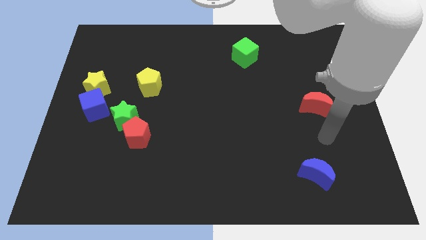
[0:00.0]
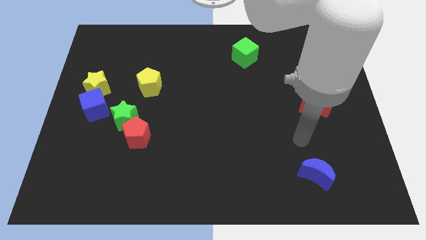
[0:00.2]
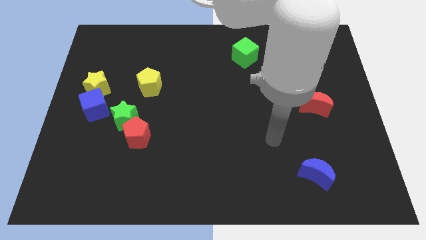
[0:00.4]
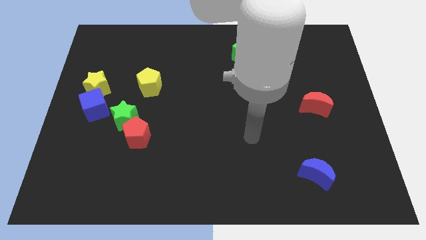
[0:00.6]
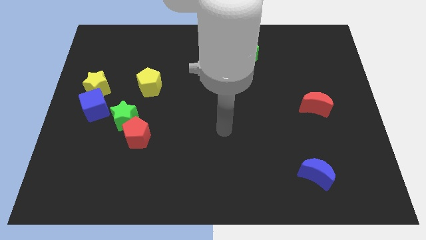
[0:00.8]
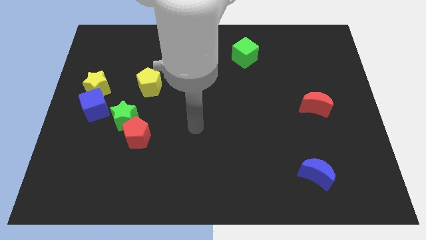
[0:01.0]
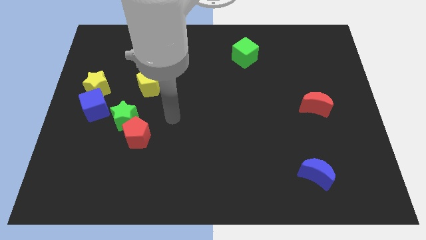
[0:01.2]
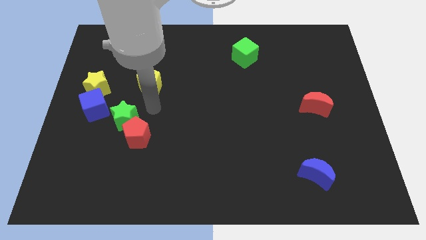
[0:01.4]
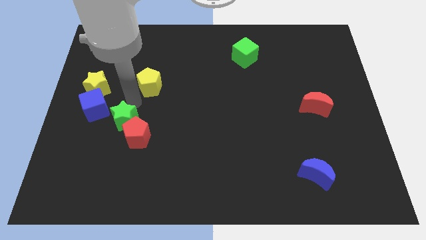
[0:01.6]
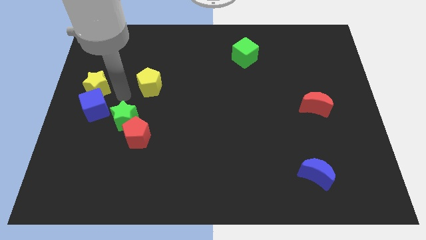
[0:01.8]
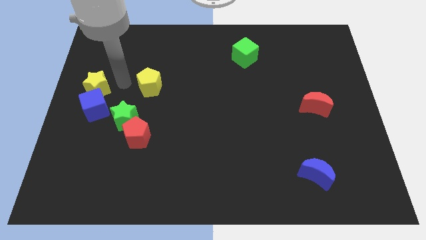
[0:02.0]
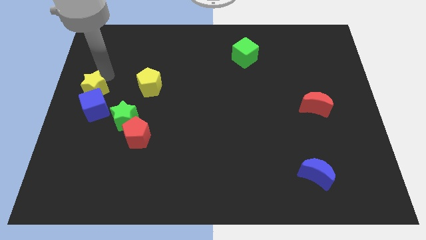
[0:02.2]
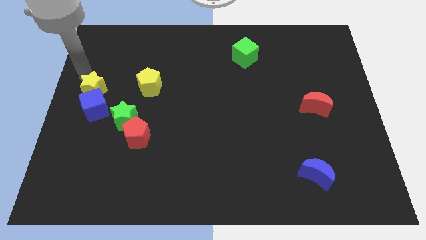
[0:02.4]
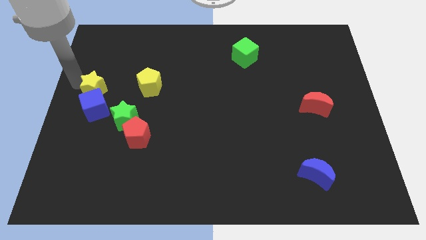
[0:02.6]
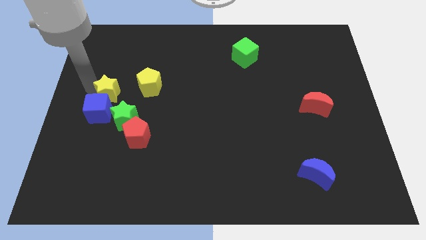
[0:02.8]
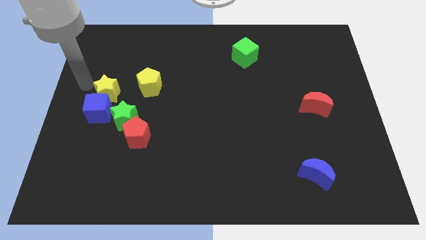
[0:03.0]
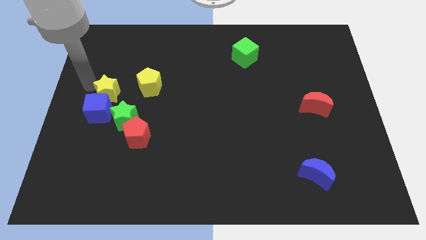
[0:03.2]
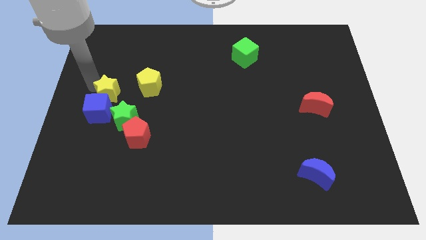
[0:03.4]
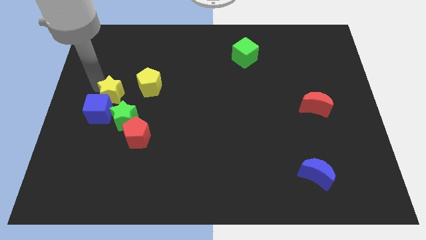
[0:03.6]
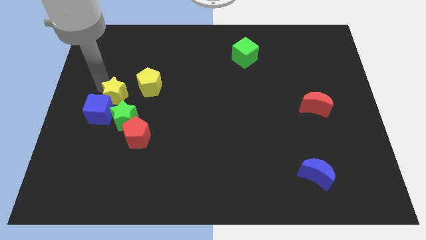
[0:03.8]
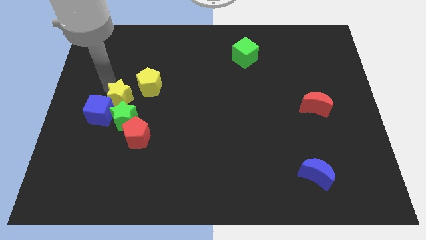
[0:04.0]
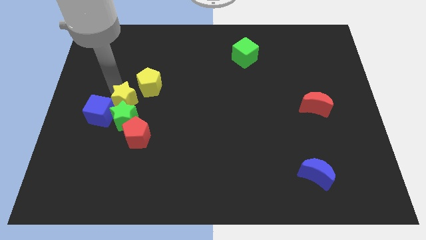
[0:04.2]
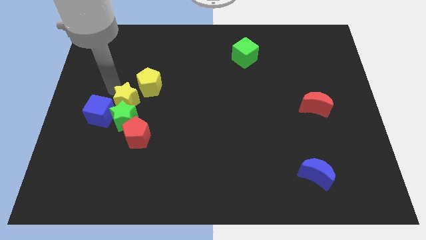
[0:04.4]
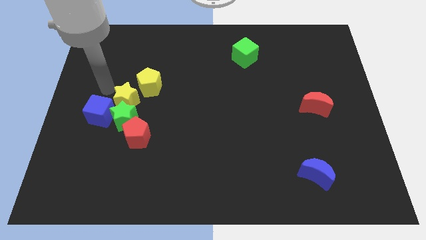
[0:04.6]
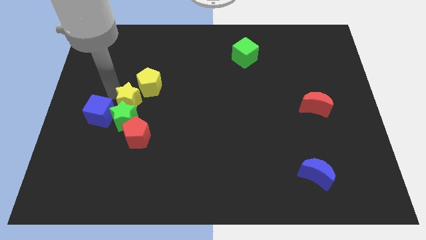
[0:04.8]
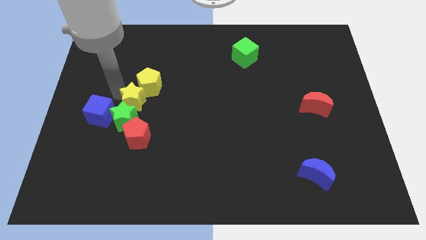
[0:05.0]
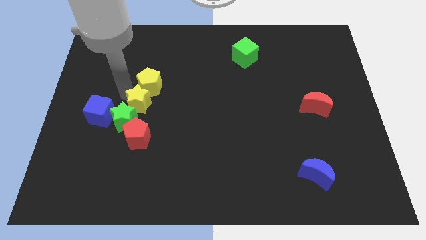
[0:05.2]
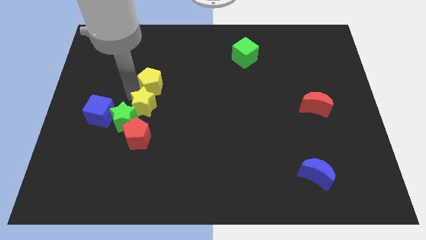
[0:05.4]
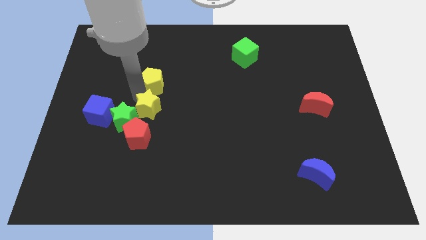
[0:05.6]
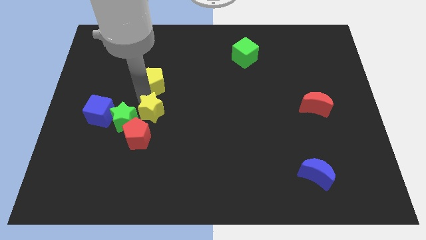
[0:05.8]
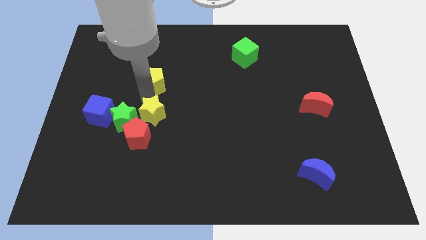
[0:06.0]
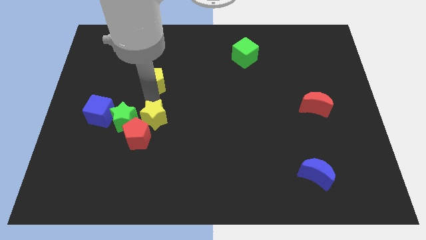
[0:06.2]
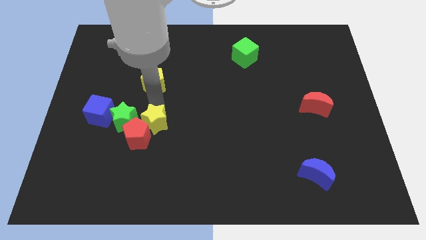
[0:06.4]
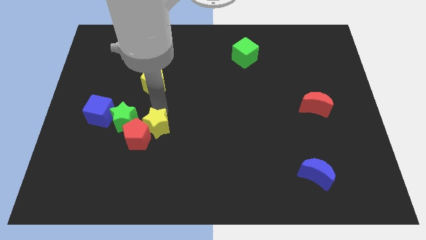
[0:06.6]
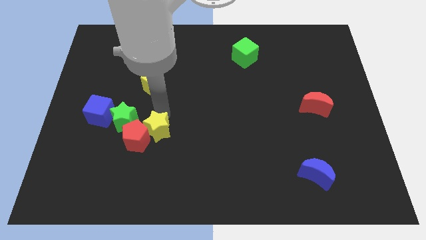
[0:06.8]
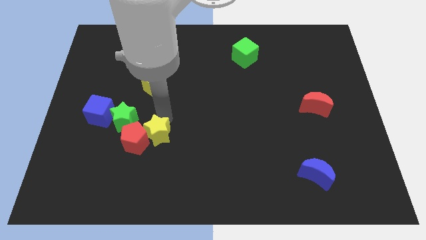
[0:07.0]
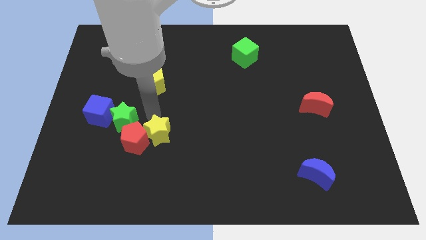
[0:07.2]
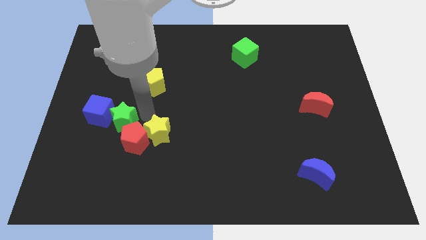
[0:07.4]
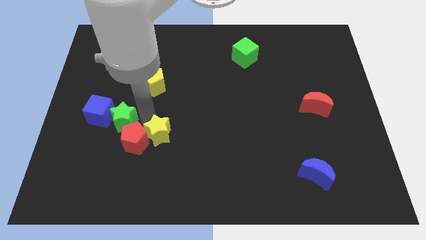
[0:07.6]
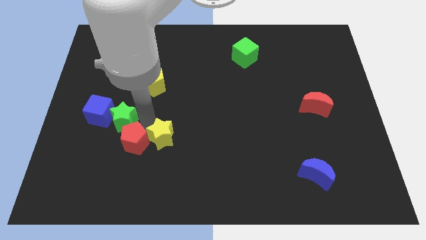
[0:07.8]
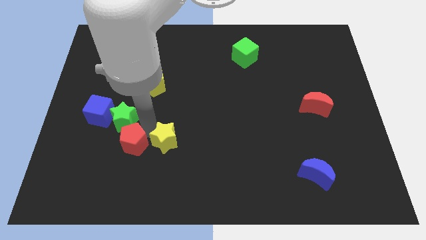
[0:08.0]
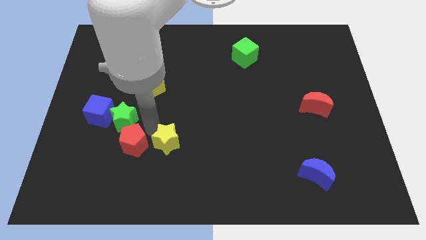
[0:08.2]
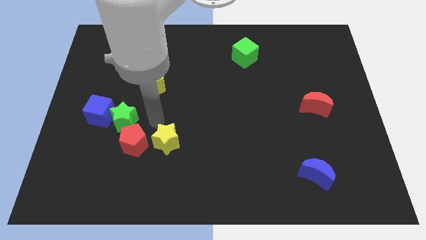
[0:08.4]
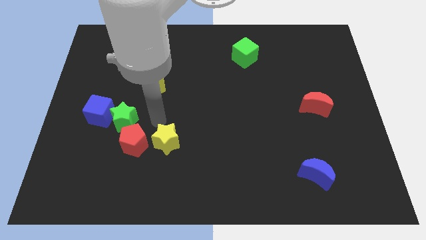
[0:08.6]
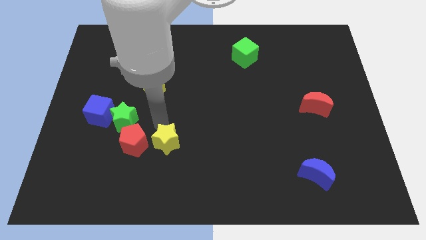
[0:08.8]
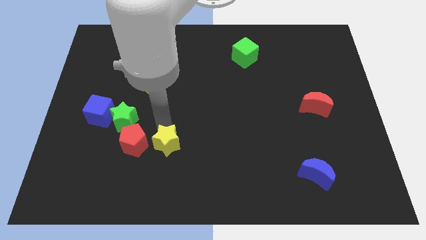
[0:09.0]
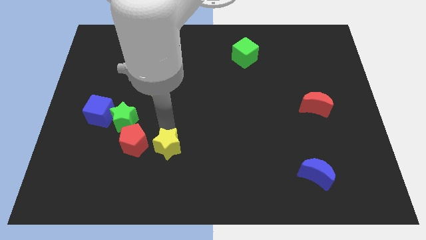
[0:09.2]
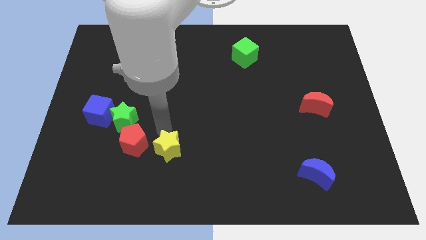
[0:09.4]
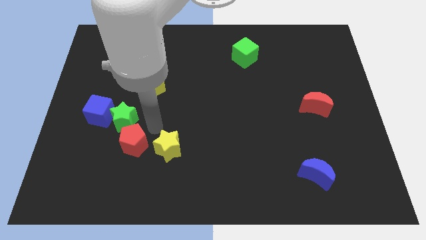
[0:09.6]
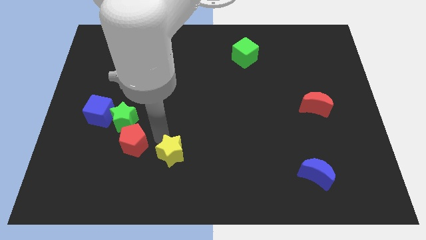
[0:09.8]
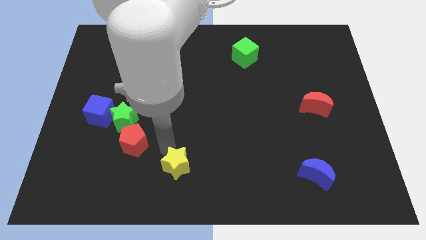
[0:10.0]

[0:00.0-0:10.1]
push the yellow star to the bottom side

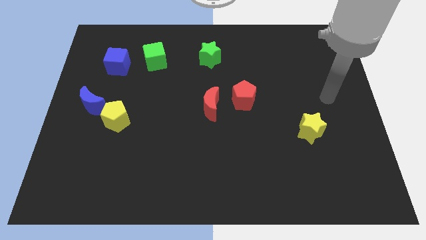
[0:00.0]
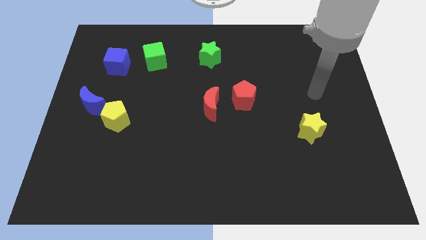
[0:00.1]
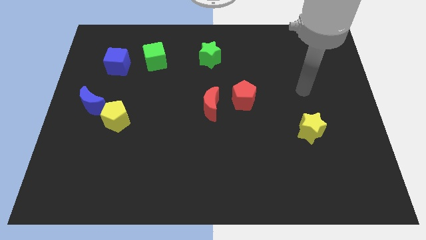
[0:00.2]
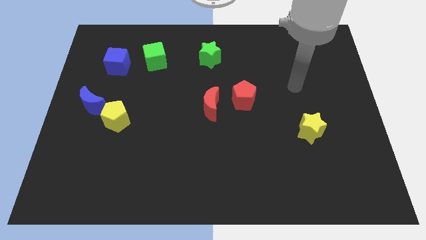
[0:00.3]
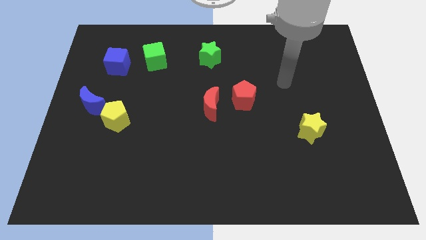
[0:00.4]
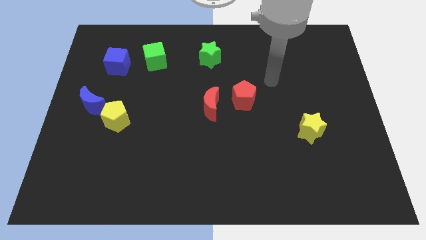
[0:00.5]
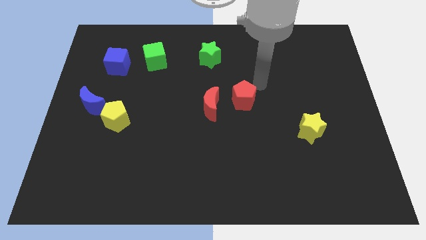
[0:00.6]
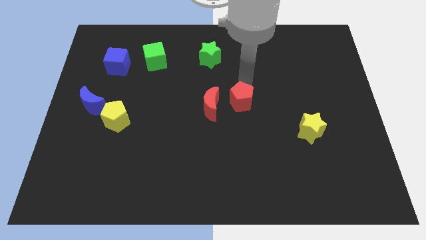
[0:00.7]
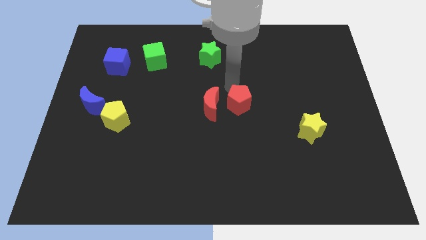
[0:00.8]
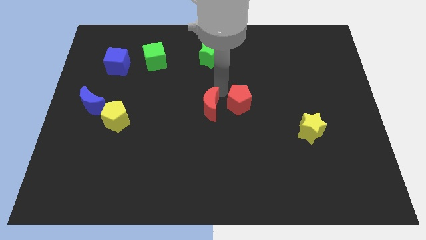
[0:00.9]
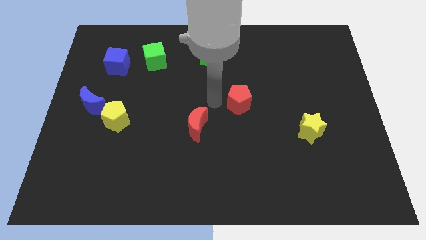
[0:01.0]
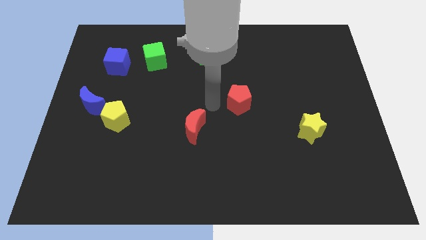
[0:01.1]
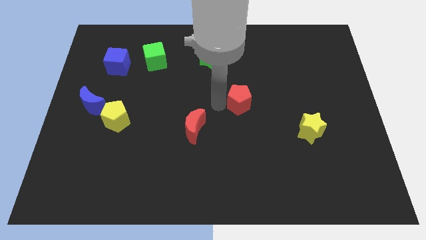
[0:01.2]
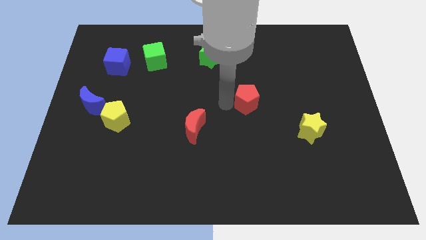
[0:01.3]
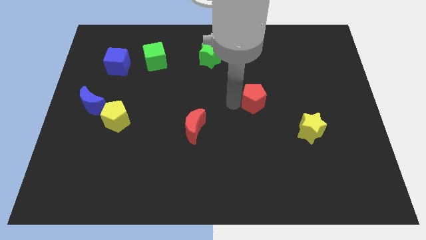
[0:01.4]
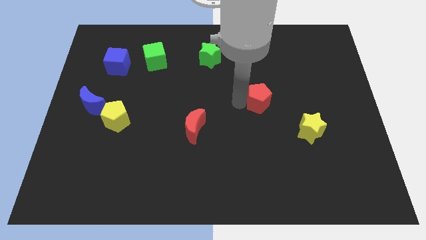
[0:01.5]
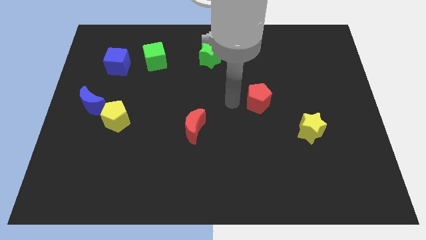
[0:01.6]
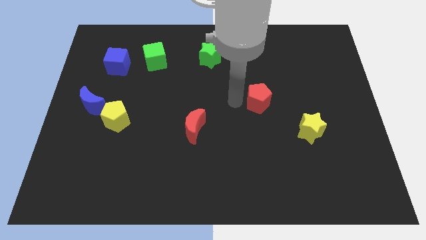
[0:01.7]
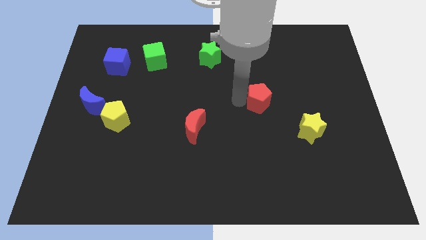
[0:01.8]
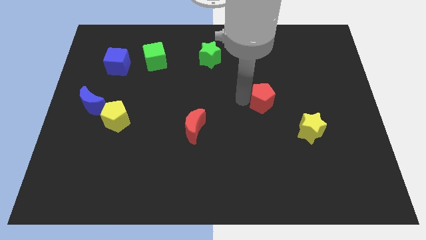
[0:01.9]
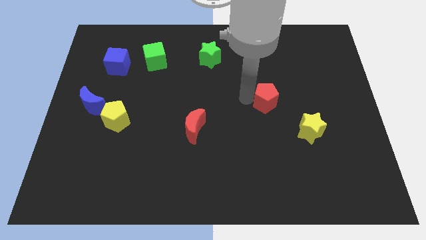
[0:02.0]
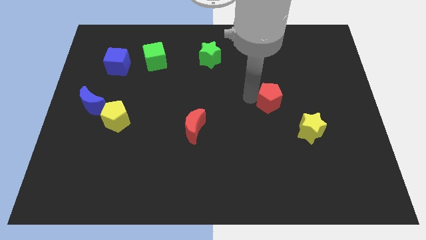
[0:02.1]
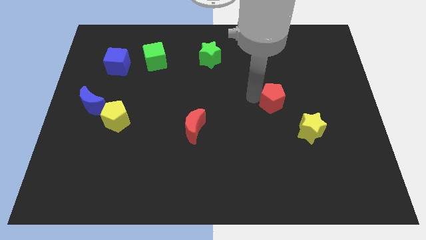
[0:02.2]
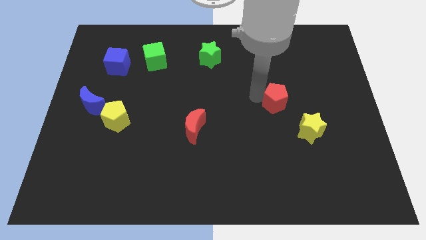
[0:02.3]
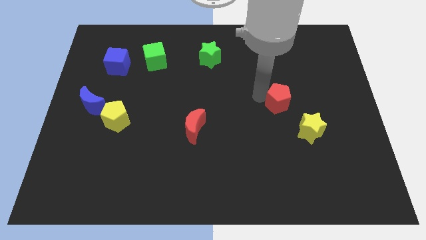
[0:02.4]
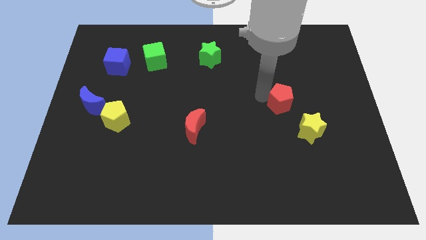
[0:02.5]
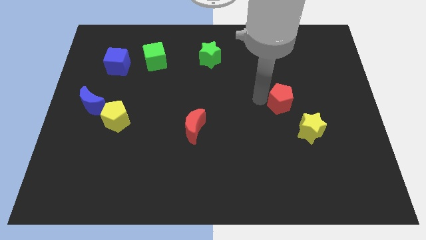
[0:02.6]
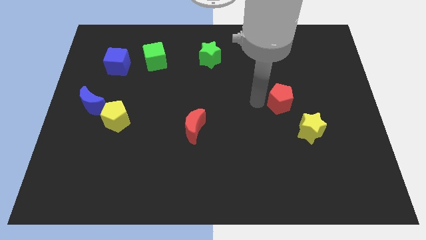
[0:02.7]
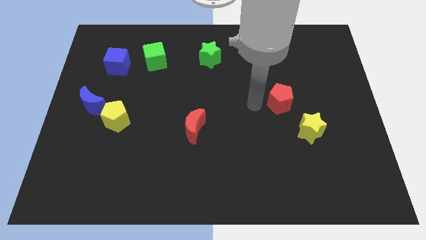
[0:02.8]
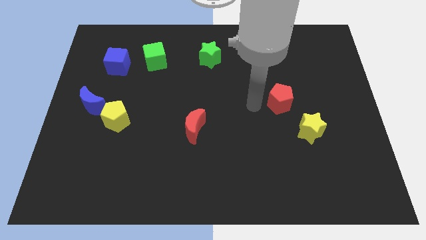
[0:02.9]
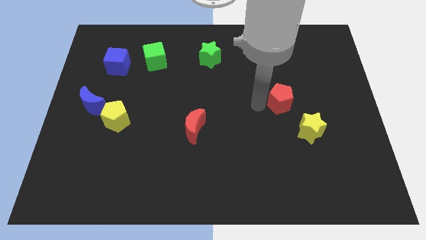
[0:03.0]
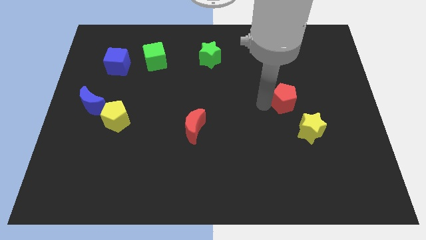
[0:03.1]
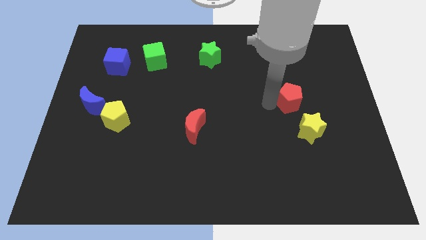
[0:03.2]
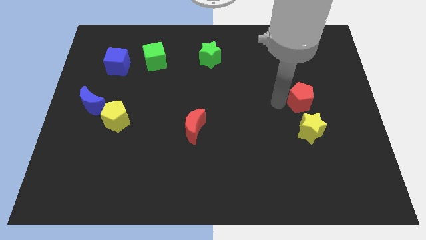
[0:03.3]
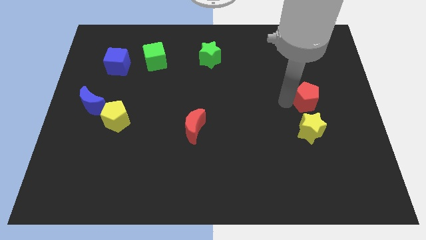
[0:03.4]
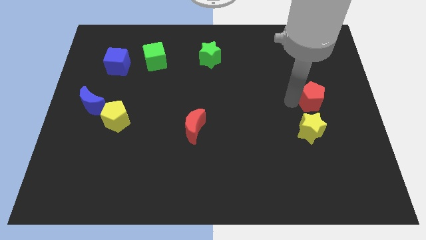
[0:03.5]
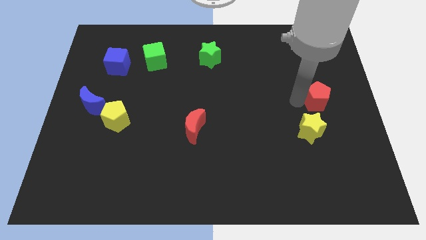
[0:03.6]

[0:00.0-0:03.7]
put the red pentagon to the center right
